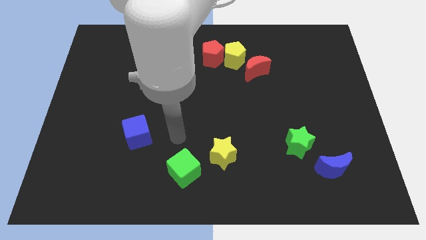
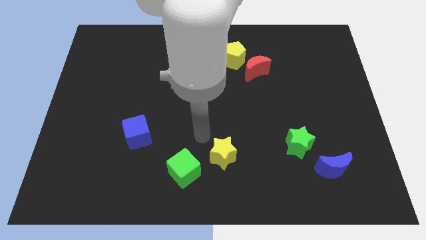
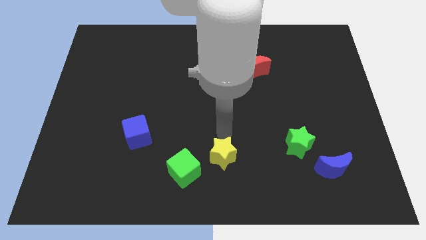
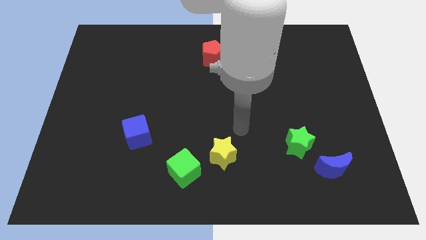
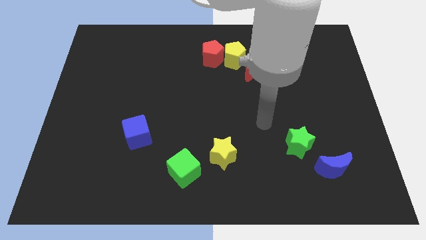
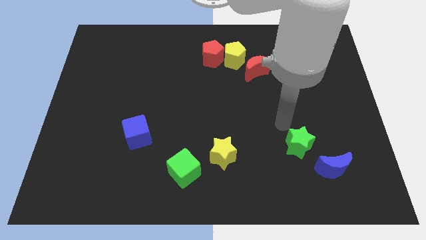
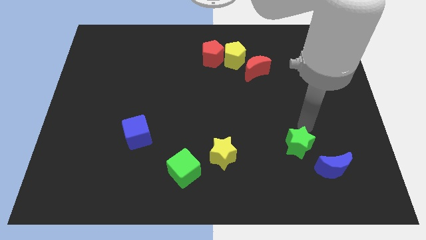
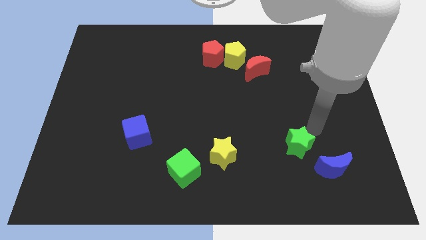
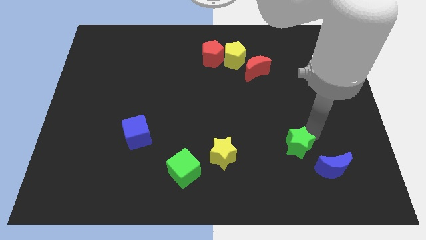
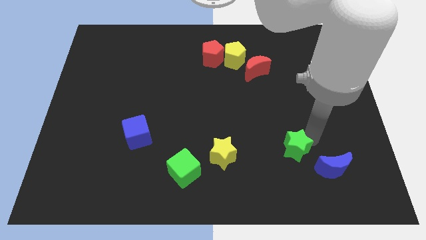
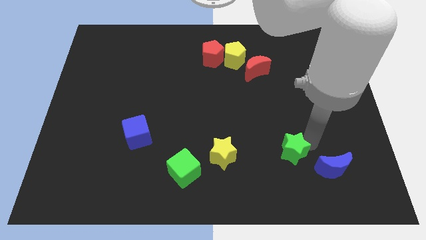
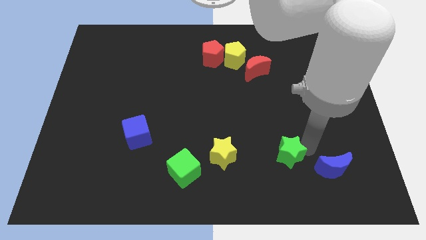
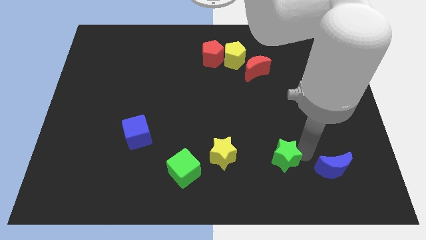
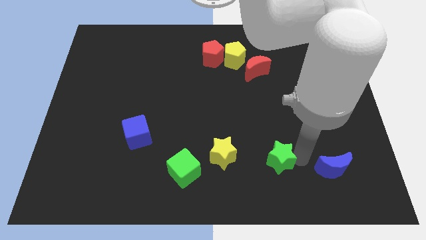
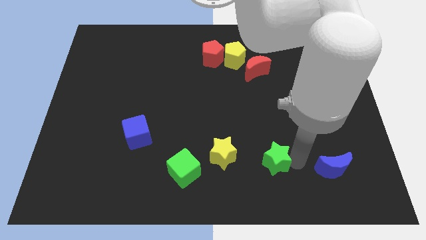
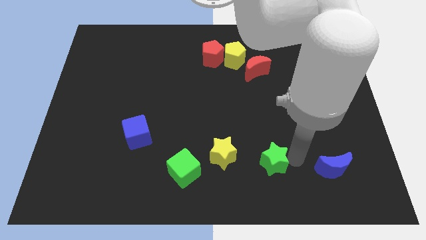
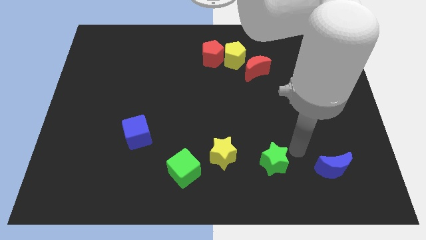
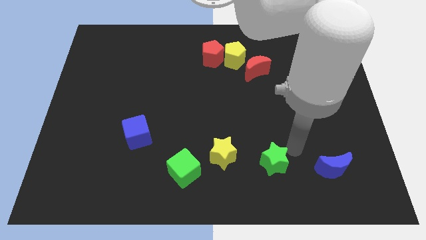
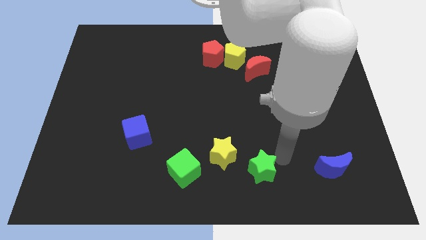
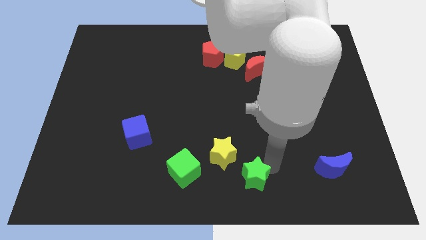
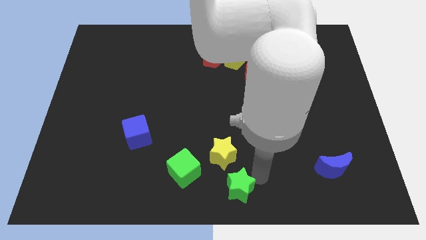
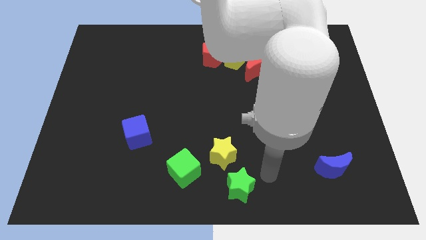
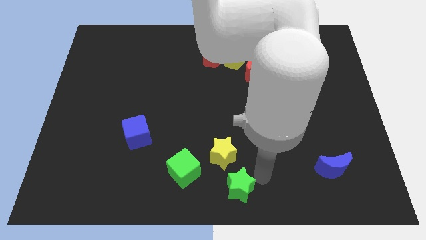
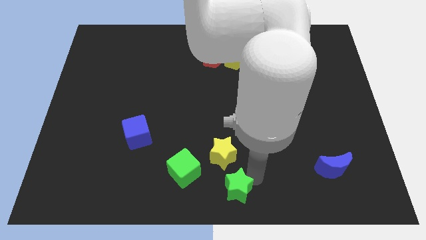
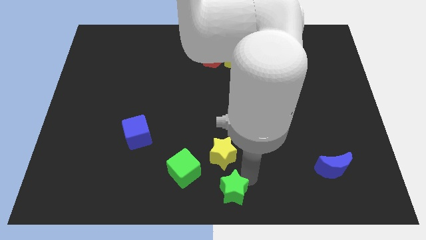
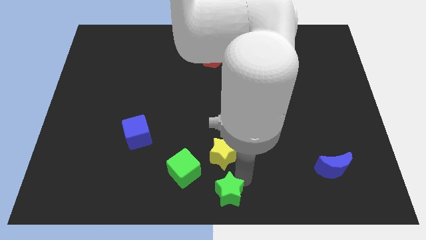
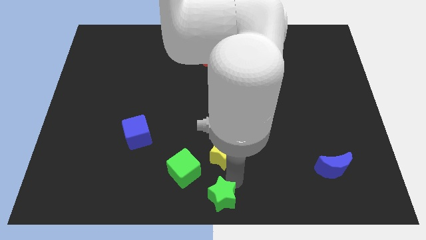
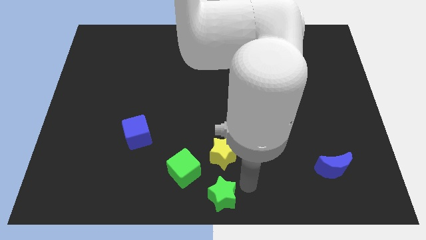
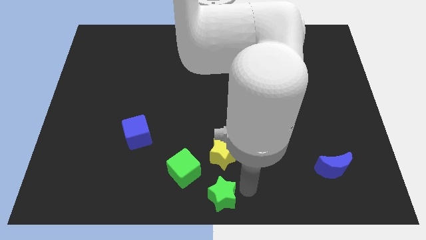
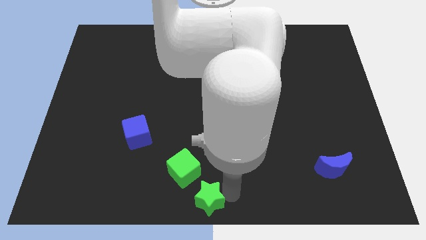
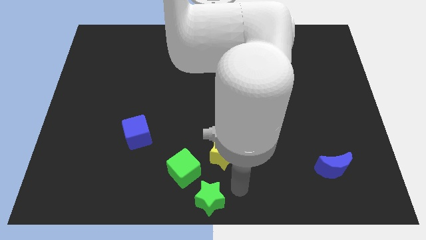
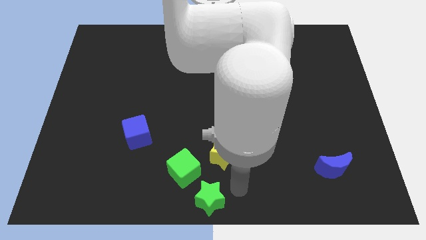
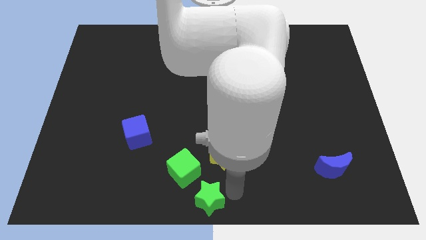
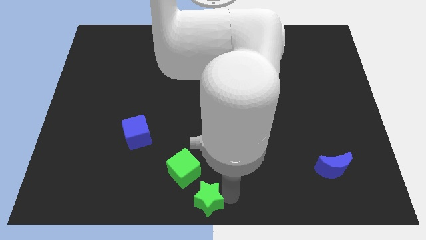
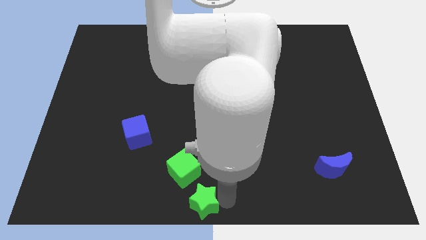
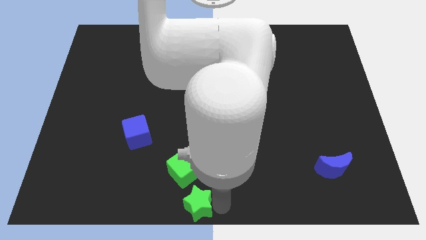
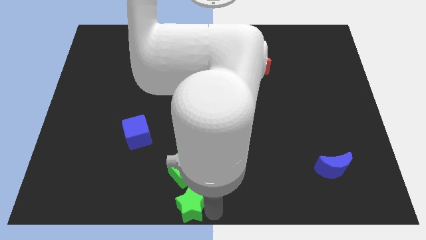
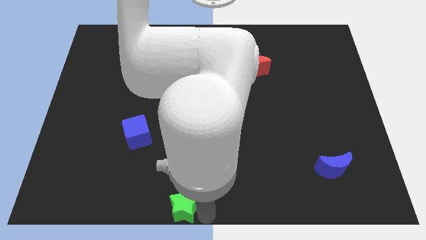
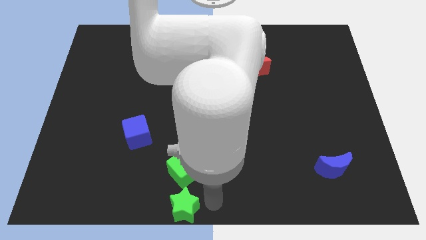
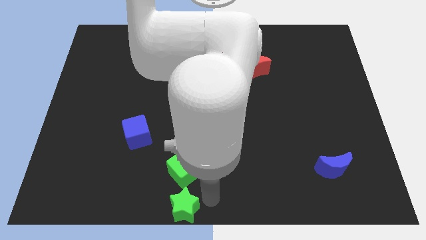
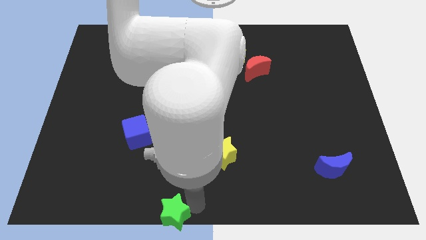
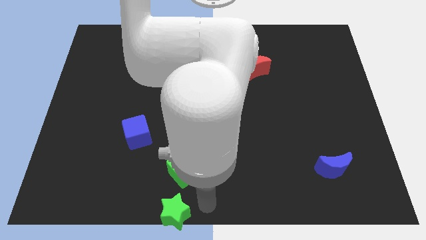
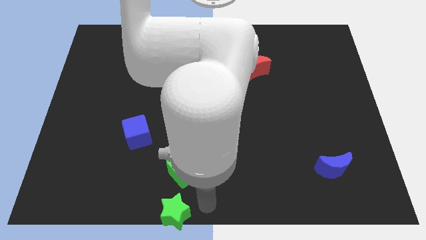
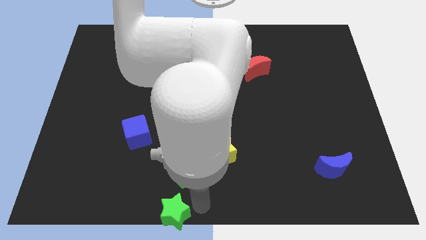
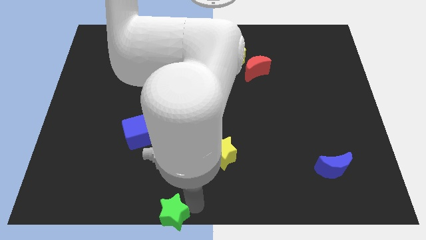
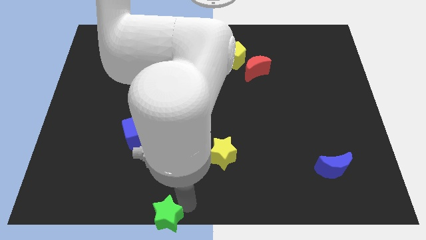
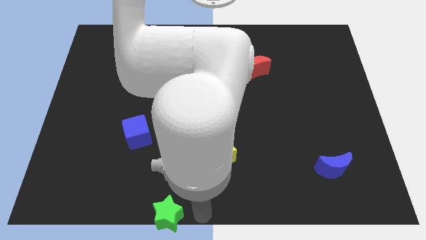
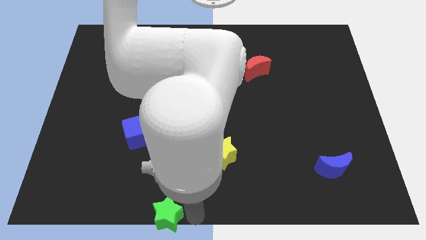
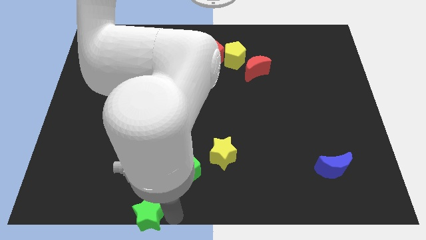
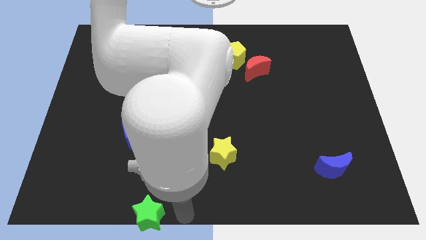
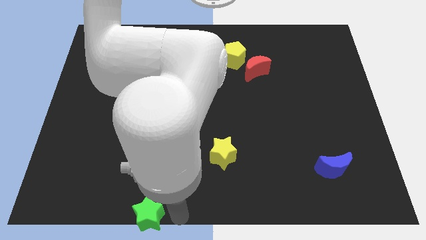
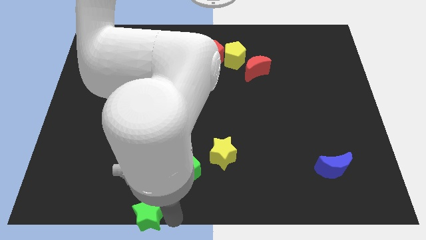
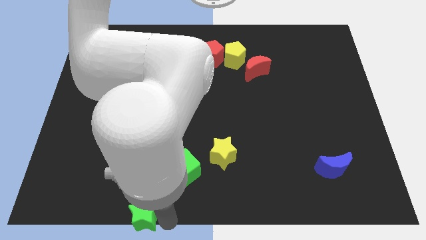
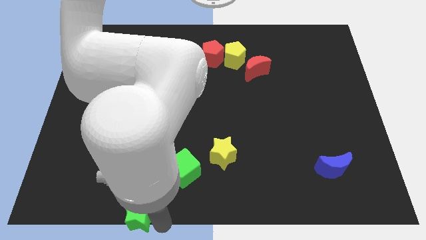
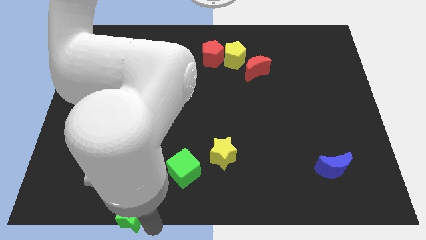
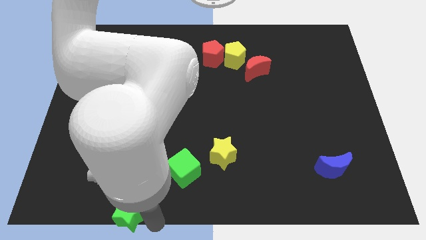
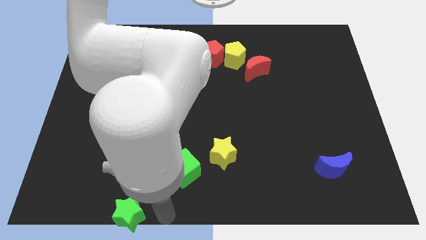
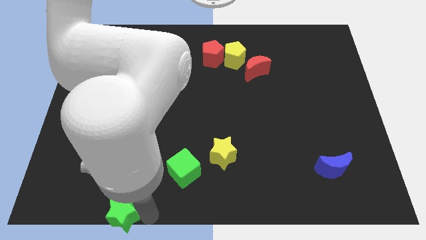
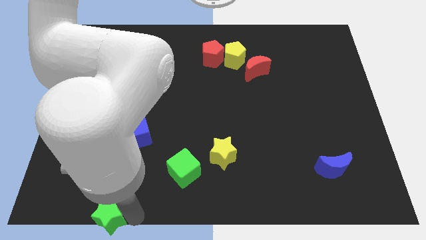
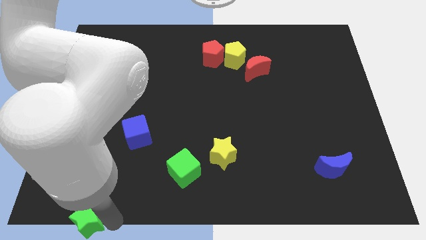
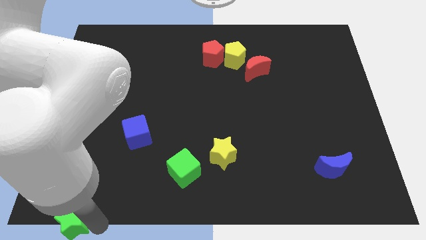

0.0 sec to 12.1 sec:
move the green star to the bottom left corner
